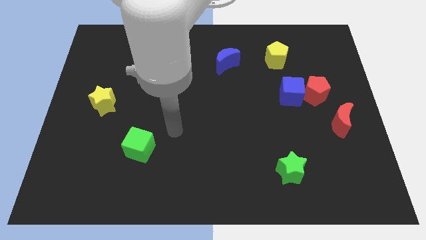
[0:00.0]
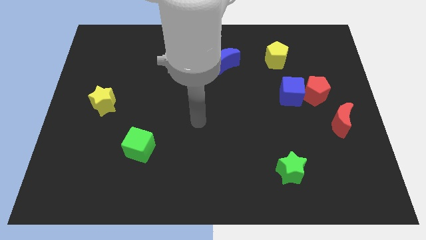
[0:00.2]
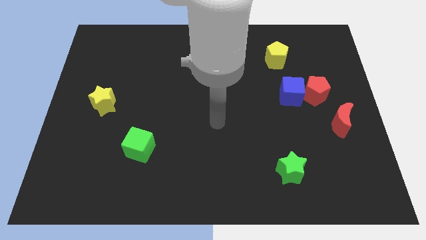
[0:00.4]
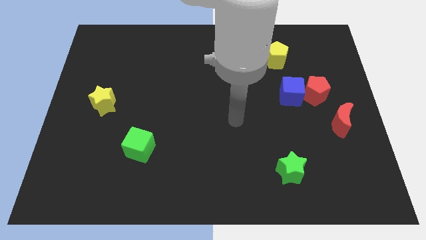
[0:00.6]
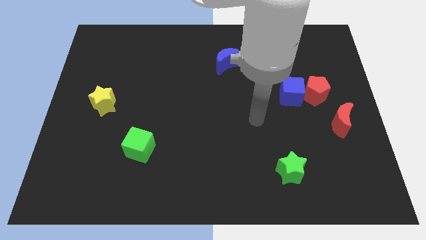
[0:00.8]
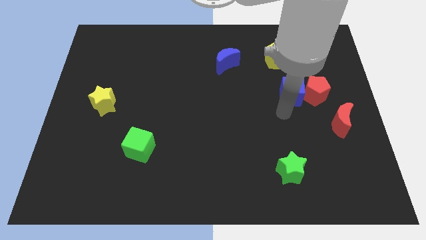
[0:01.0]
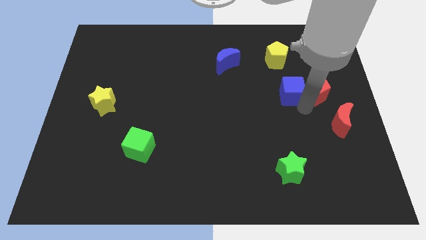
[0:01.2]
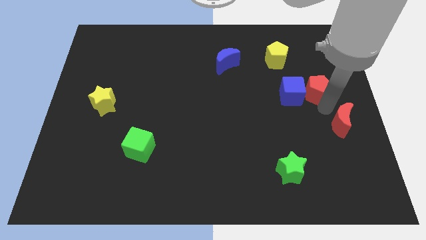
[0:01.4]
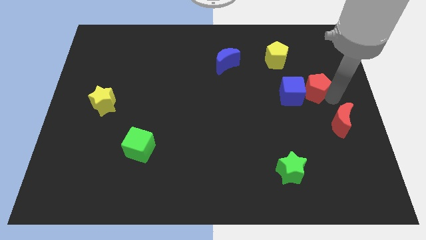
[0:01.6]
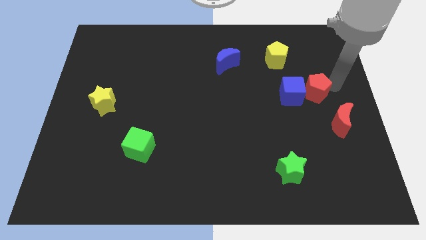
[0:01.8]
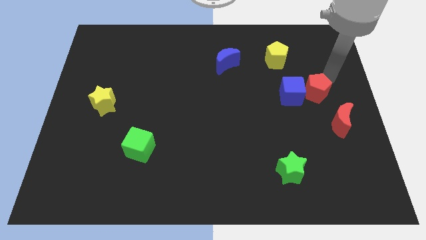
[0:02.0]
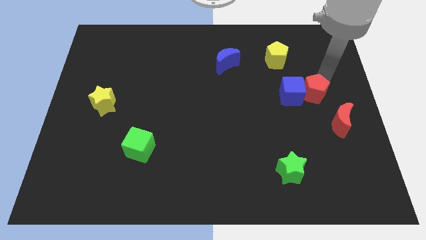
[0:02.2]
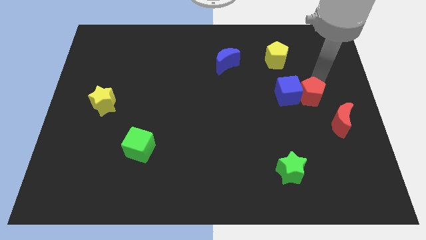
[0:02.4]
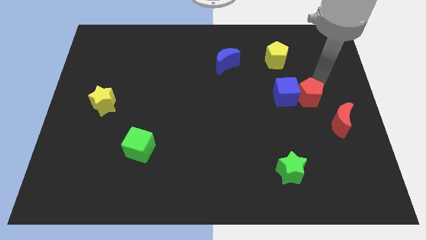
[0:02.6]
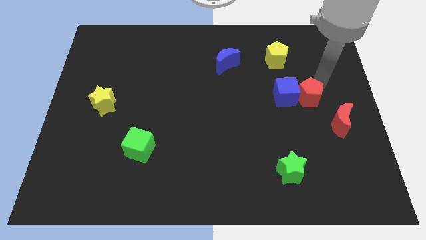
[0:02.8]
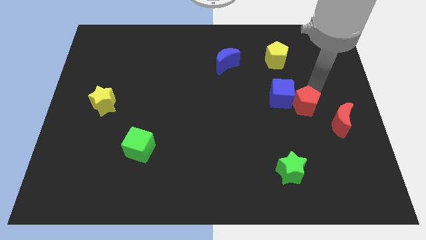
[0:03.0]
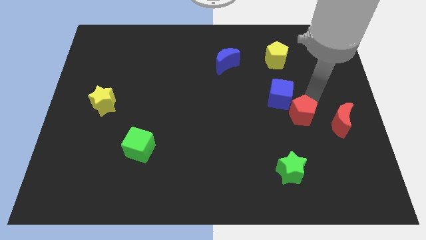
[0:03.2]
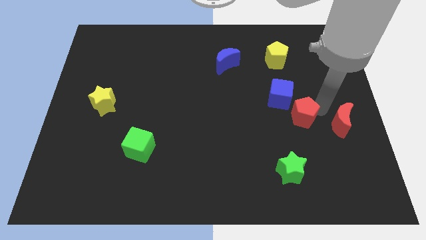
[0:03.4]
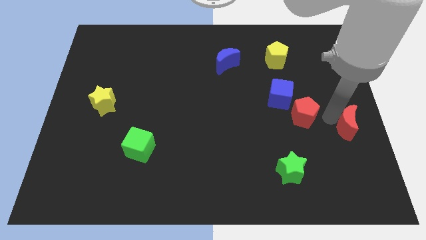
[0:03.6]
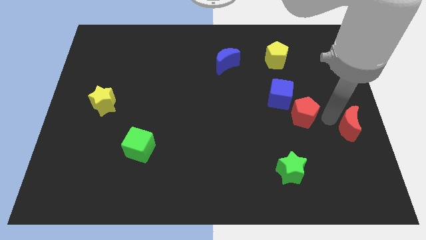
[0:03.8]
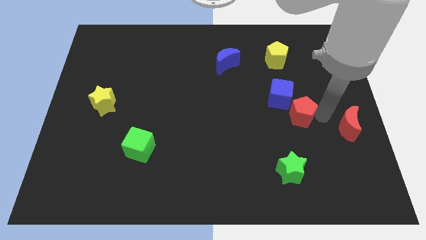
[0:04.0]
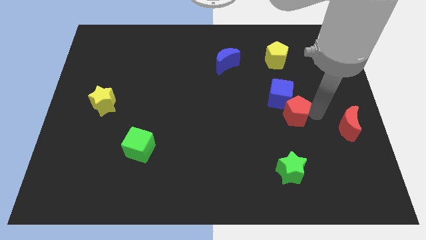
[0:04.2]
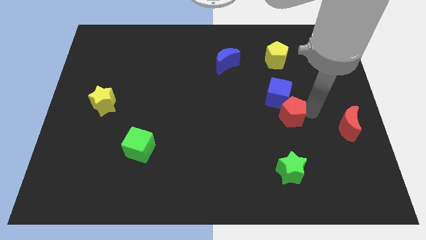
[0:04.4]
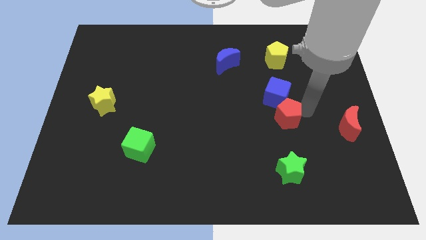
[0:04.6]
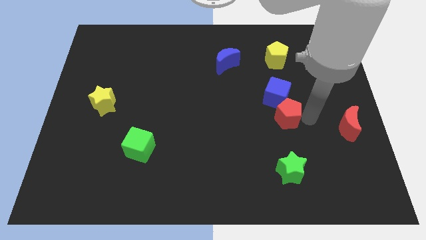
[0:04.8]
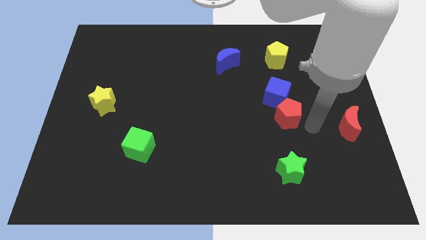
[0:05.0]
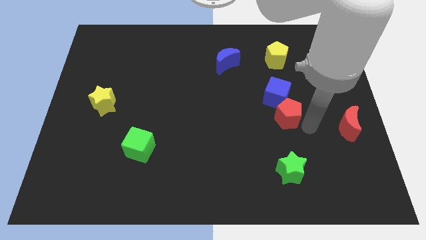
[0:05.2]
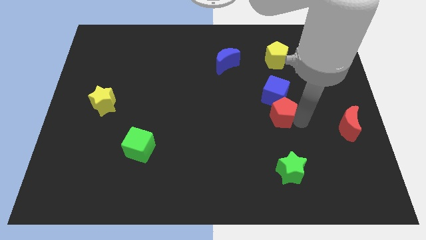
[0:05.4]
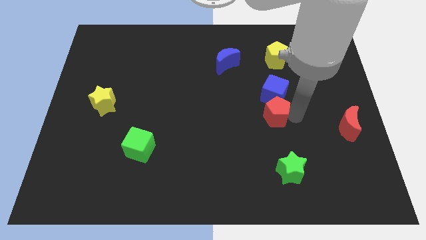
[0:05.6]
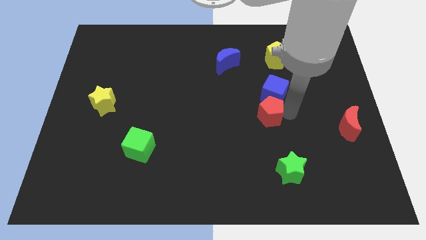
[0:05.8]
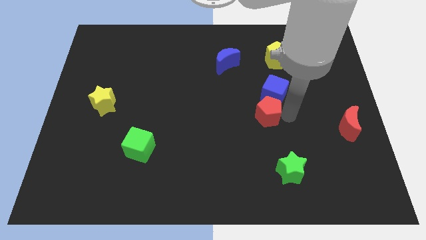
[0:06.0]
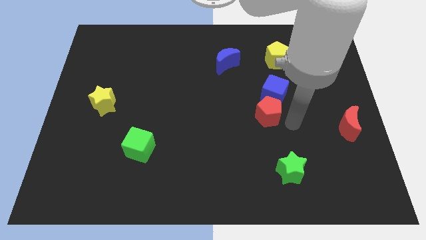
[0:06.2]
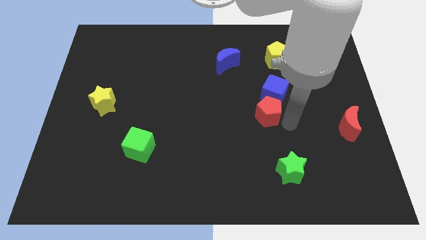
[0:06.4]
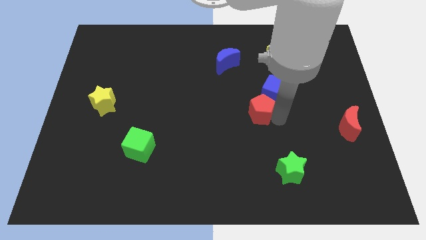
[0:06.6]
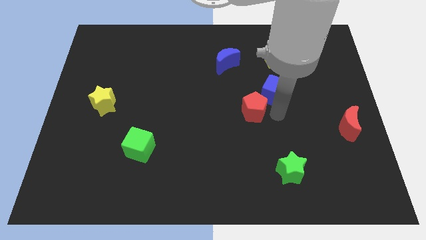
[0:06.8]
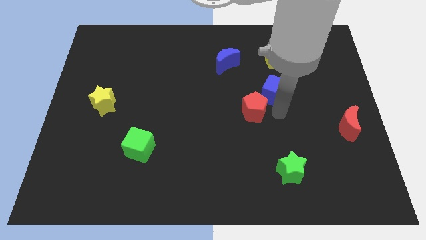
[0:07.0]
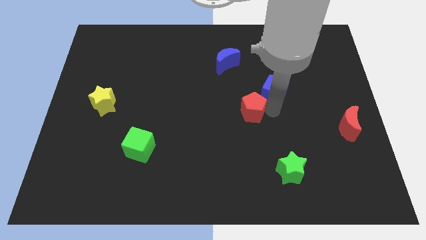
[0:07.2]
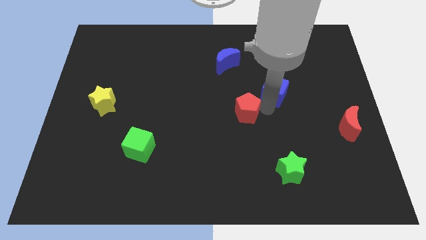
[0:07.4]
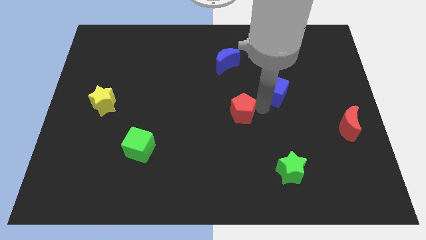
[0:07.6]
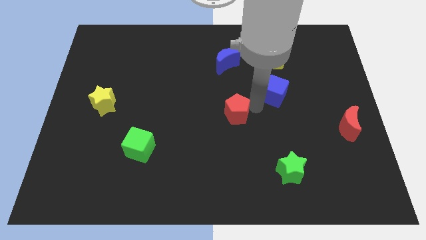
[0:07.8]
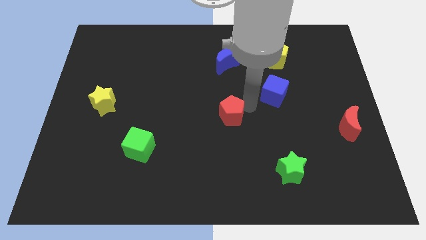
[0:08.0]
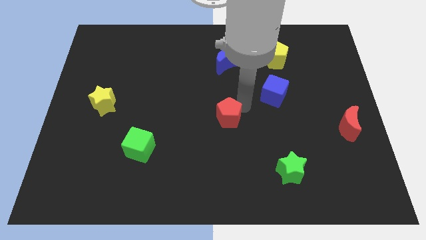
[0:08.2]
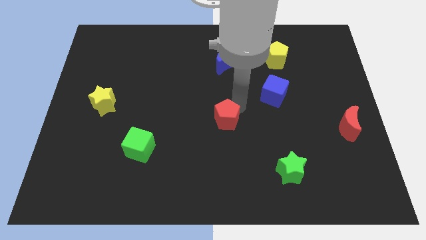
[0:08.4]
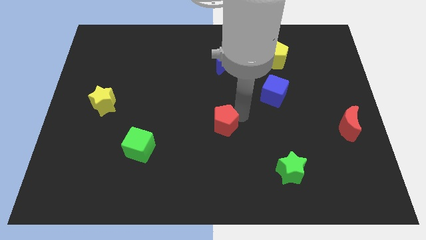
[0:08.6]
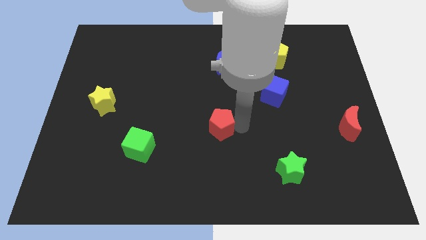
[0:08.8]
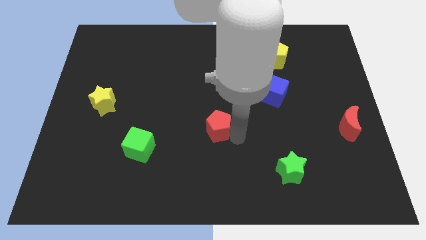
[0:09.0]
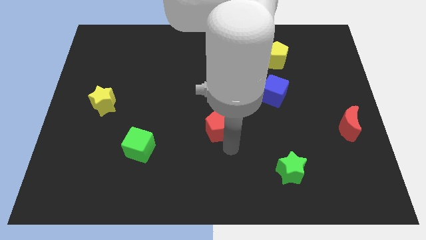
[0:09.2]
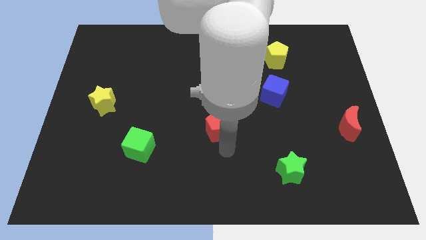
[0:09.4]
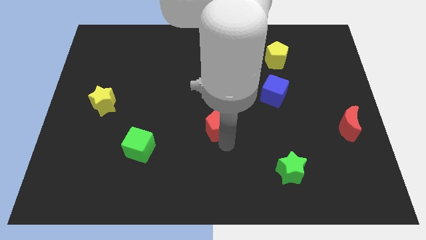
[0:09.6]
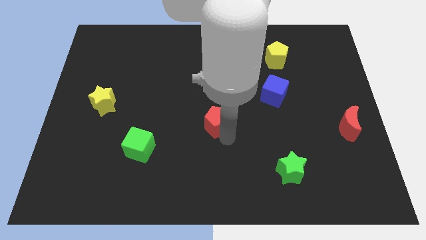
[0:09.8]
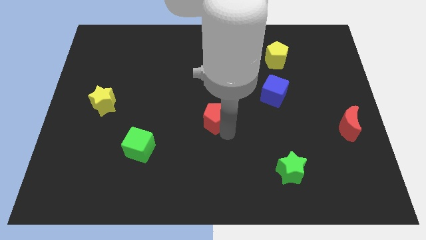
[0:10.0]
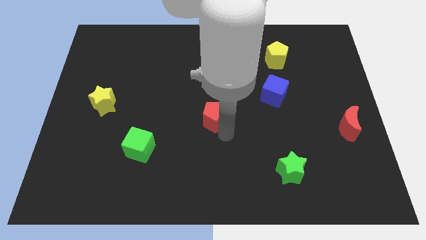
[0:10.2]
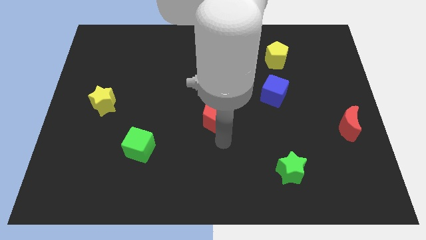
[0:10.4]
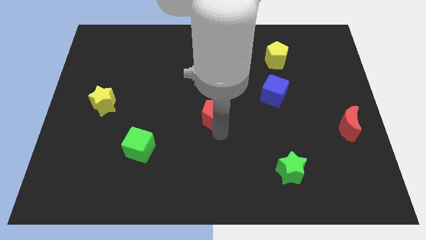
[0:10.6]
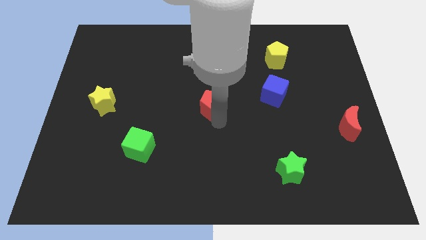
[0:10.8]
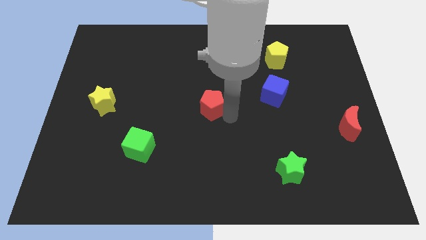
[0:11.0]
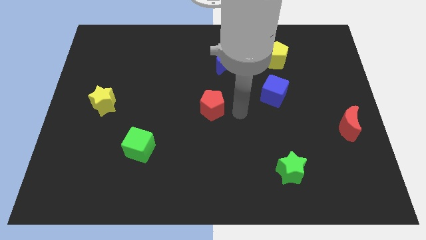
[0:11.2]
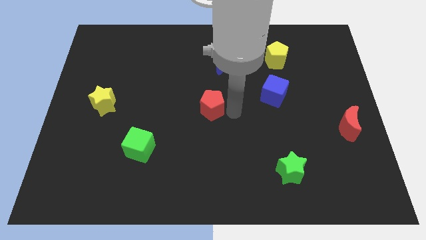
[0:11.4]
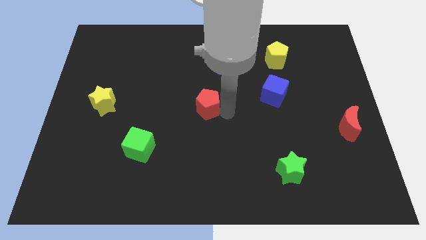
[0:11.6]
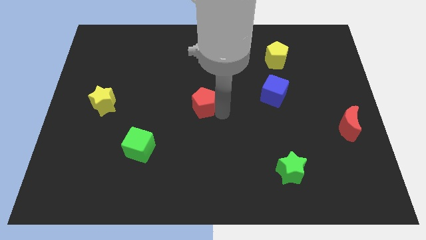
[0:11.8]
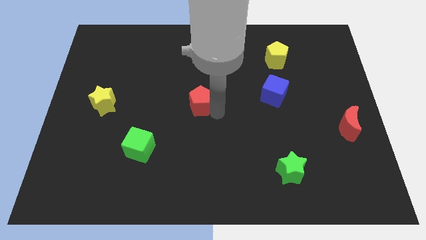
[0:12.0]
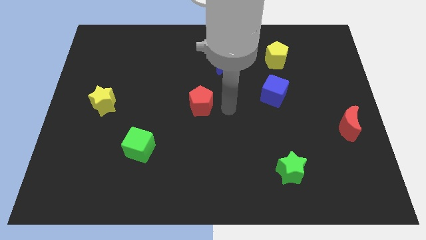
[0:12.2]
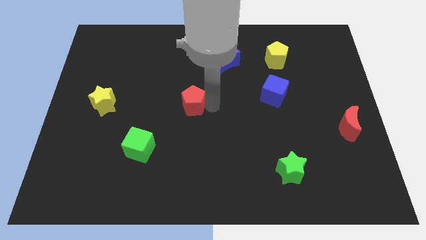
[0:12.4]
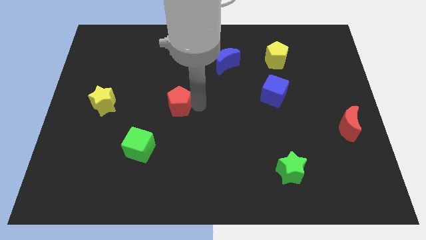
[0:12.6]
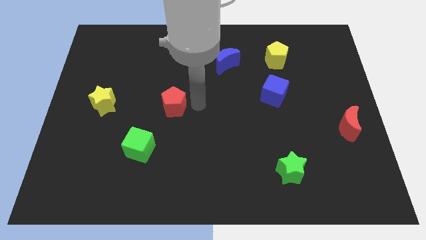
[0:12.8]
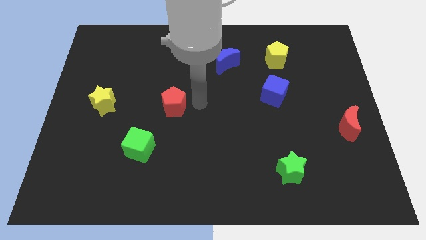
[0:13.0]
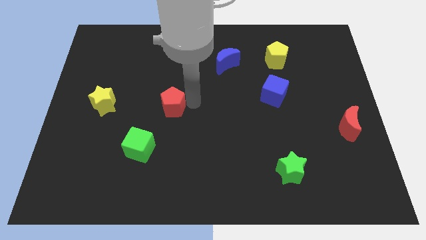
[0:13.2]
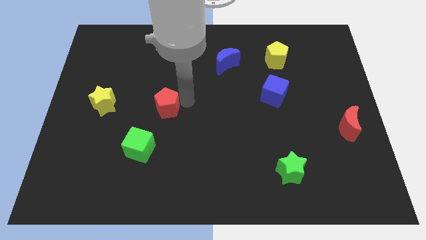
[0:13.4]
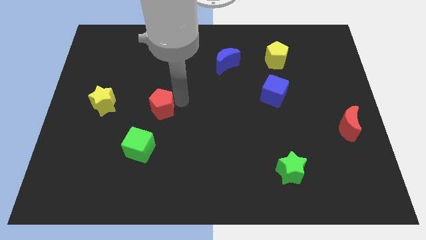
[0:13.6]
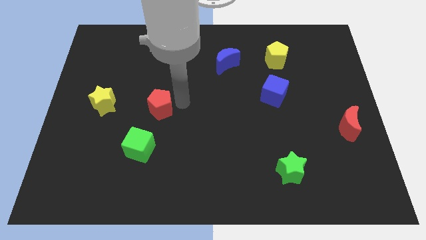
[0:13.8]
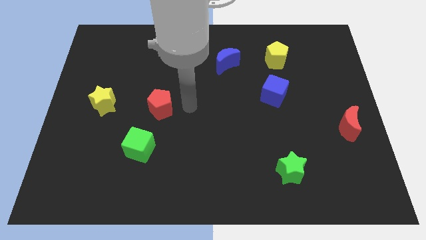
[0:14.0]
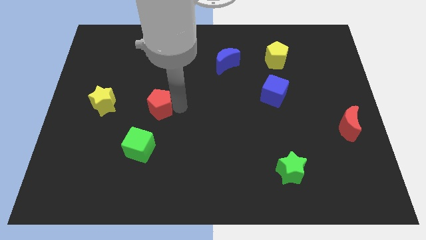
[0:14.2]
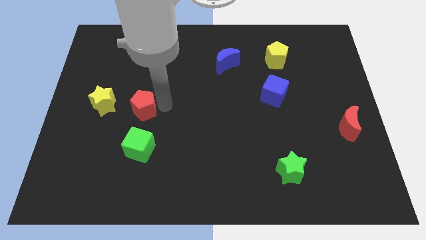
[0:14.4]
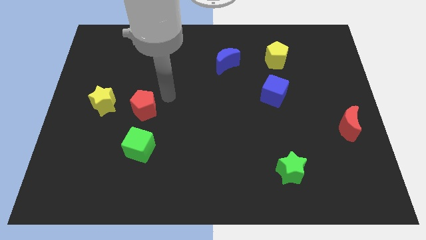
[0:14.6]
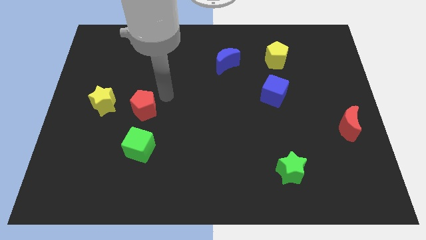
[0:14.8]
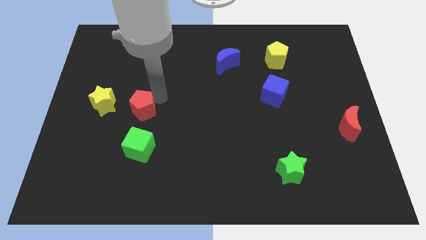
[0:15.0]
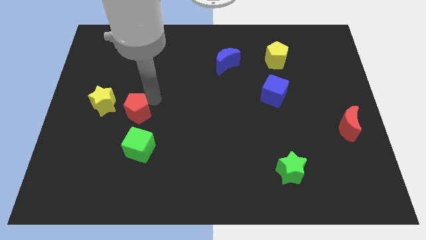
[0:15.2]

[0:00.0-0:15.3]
move the red pentagon to the bottom right side of the yellow star
